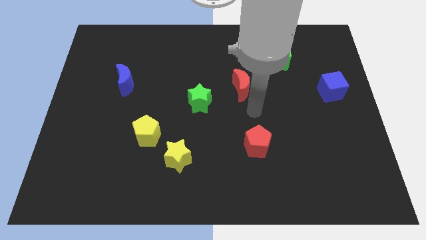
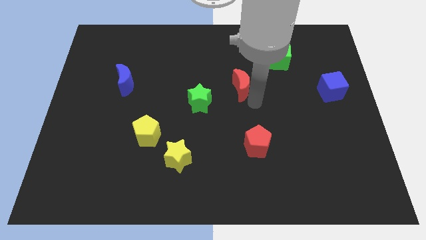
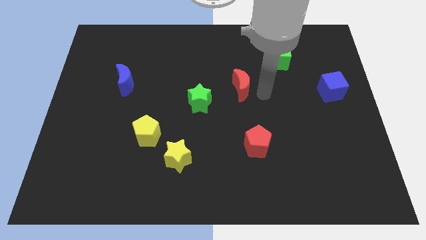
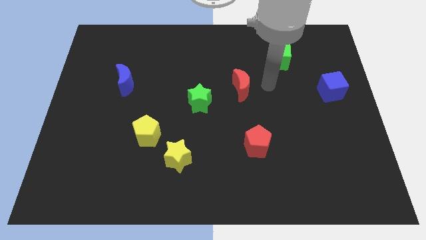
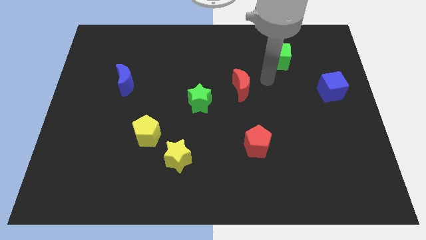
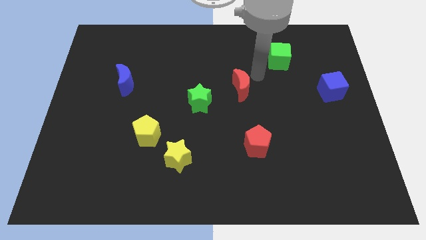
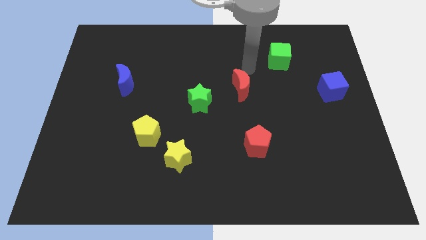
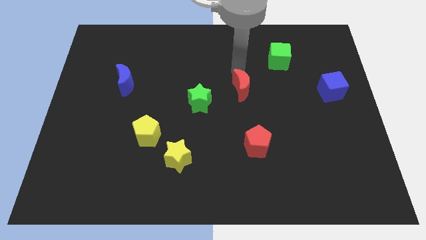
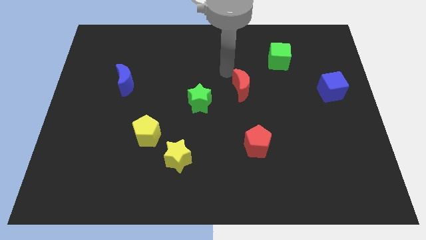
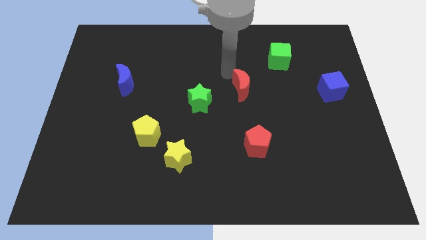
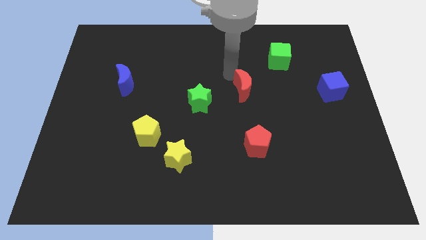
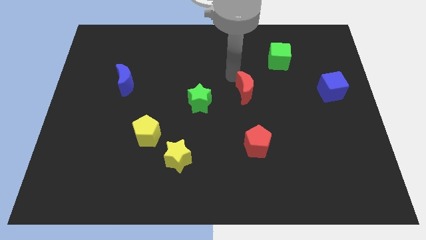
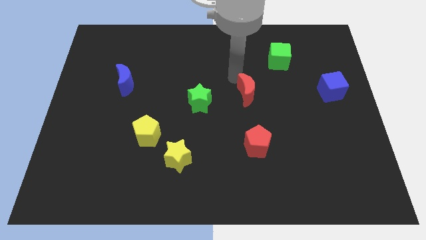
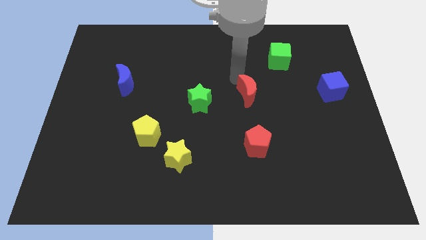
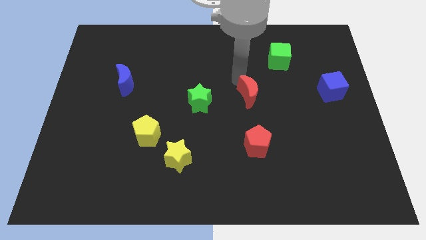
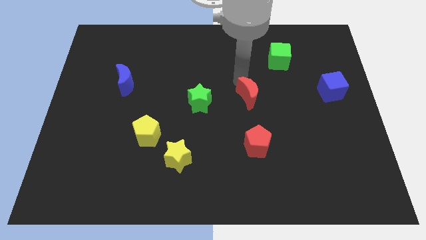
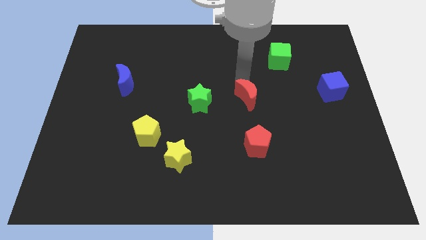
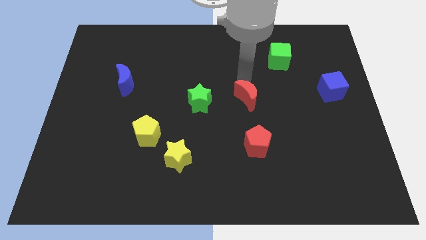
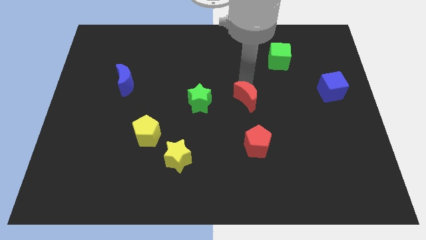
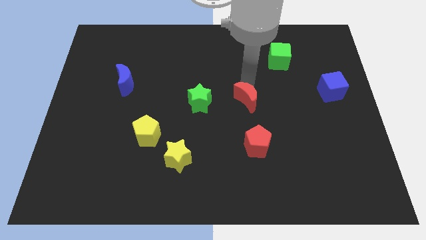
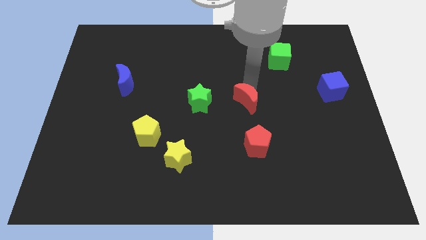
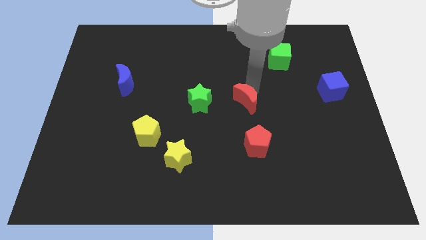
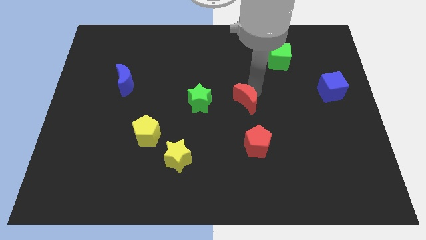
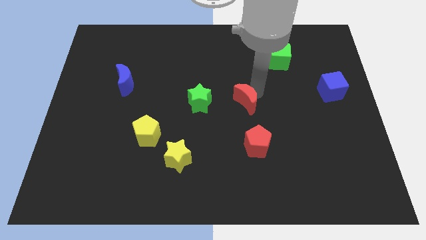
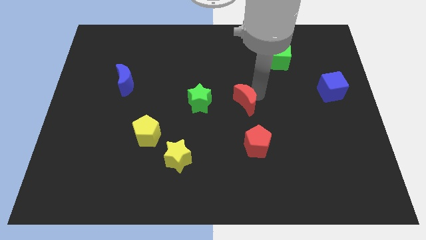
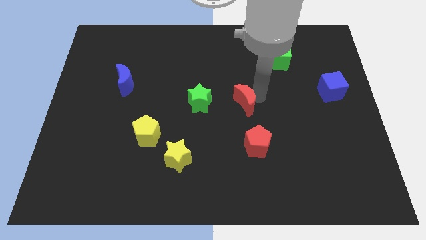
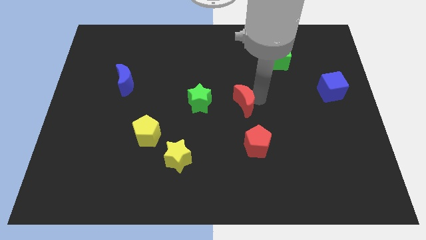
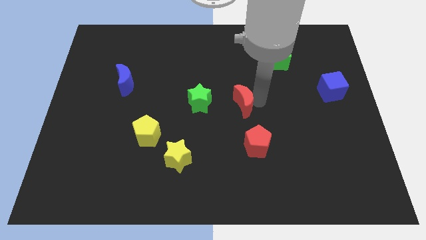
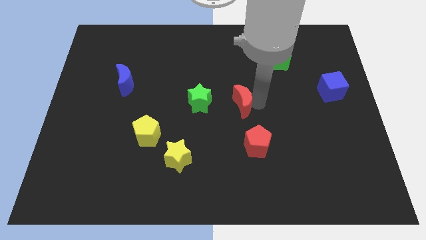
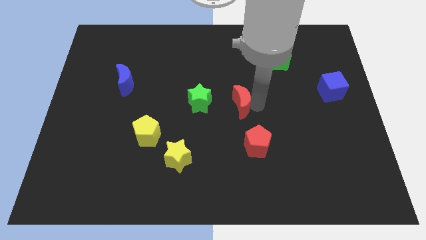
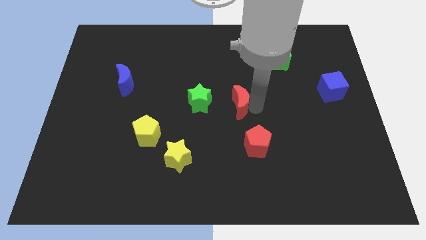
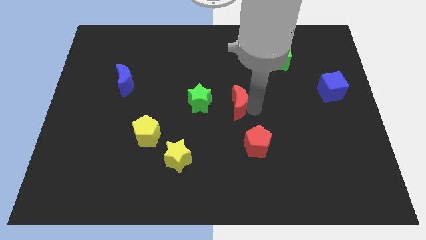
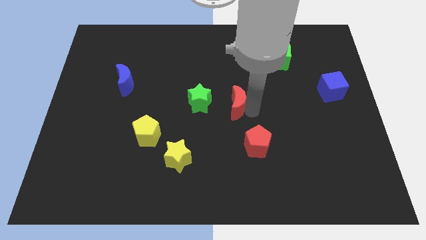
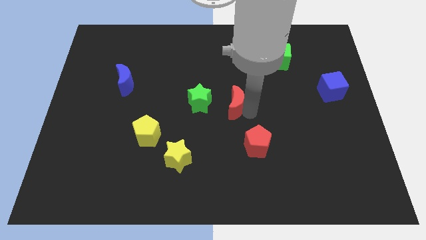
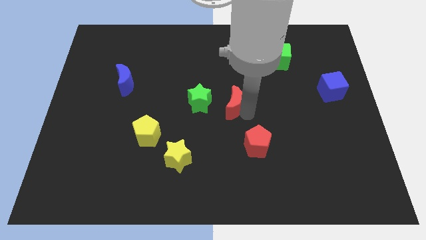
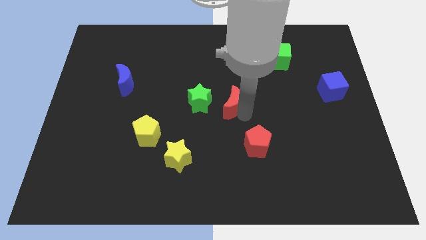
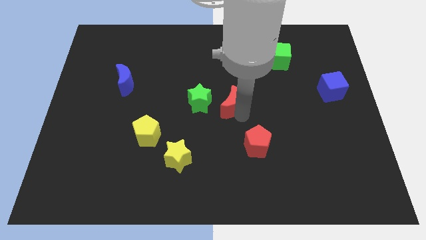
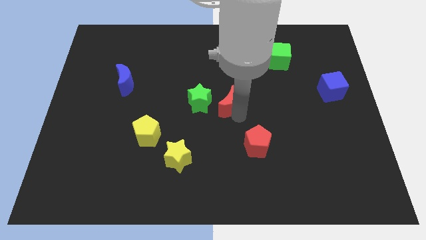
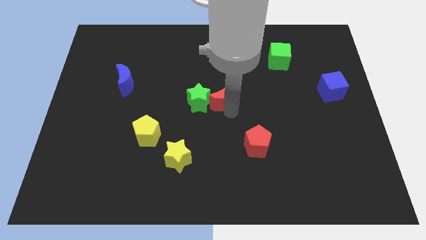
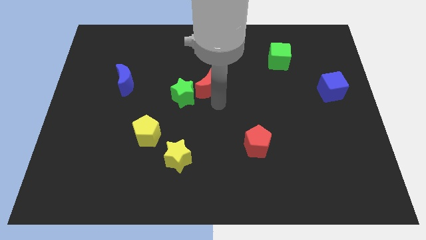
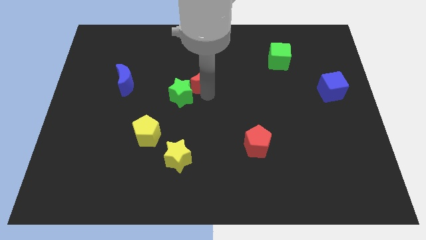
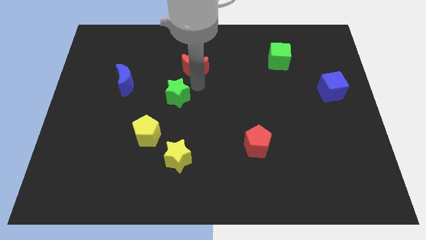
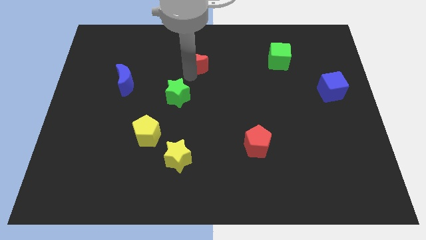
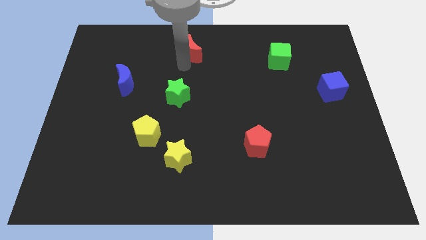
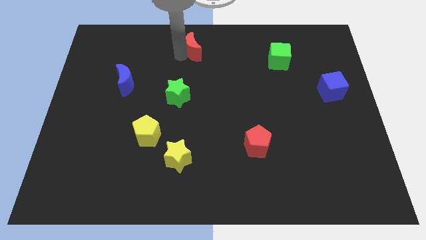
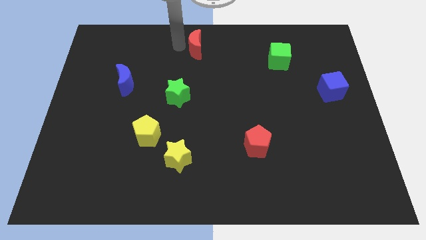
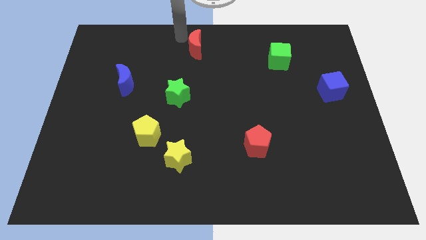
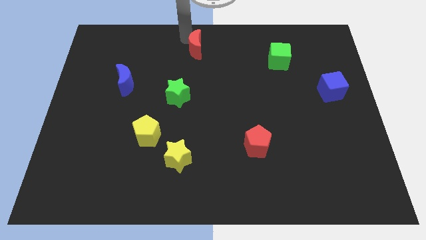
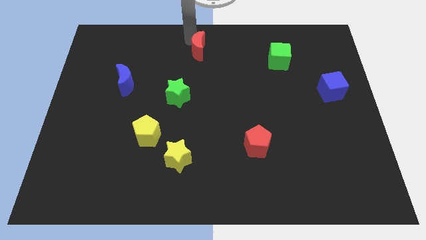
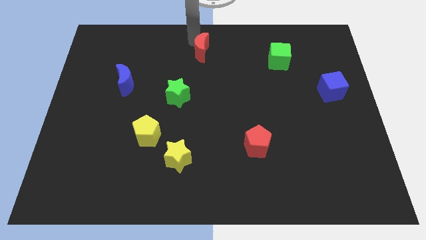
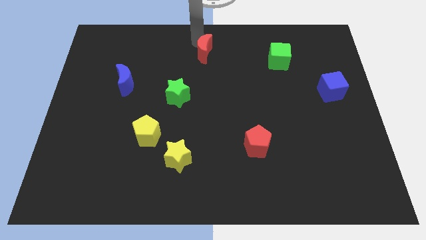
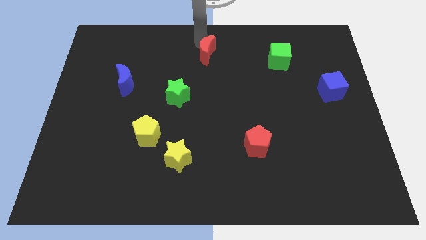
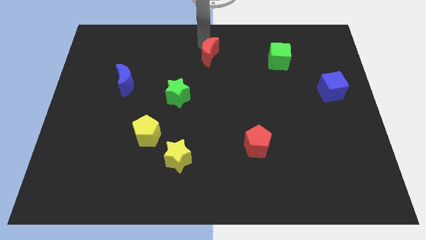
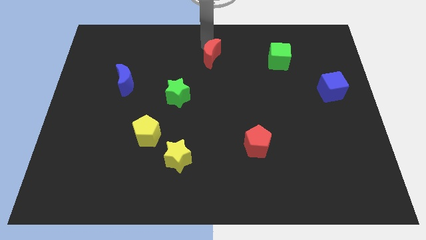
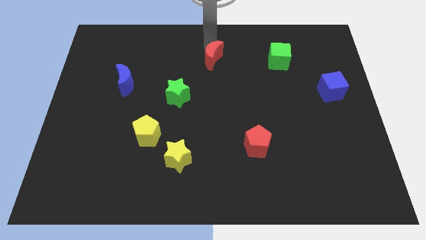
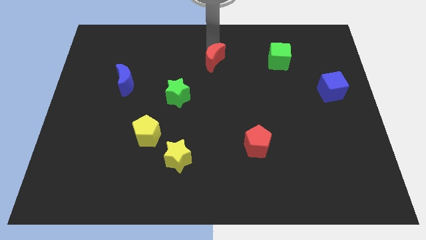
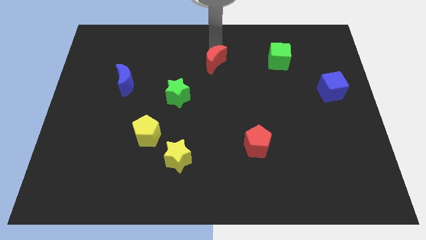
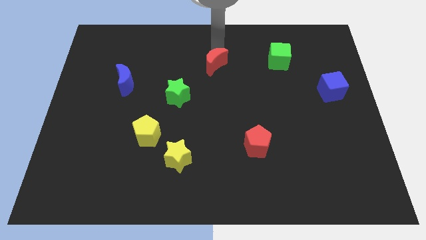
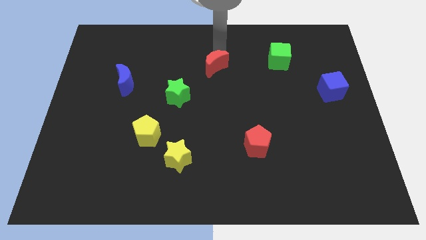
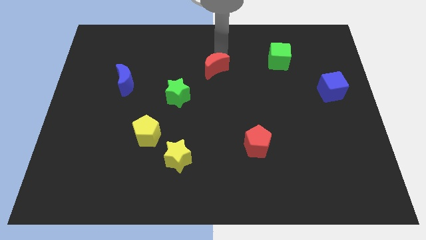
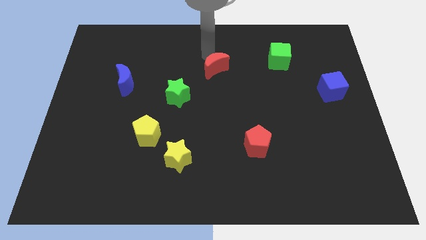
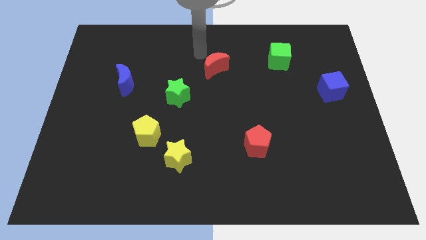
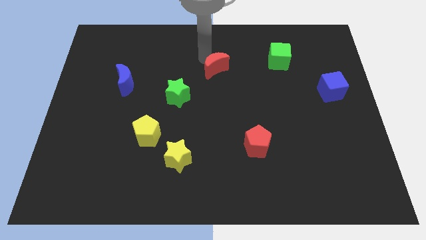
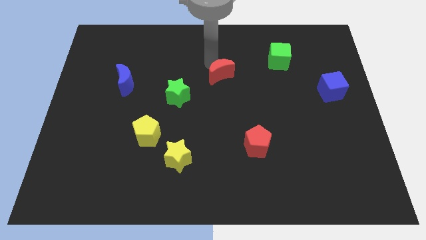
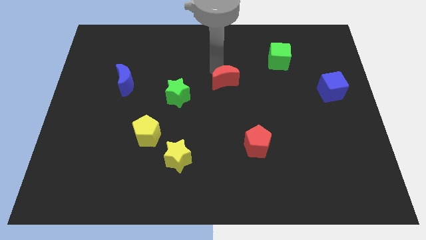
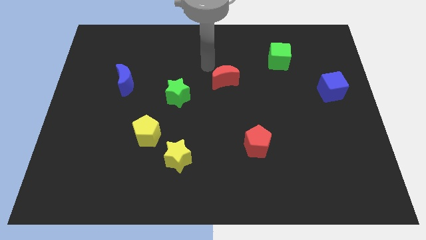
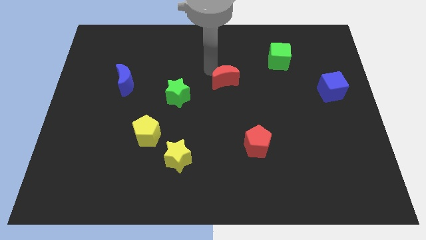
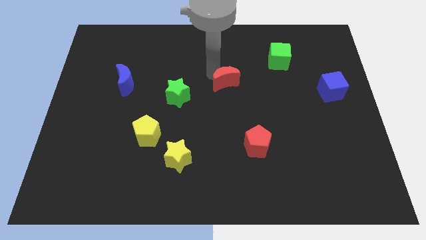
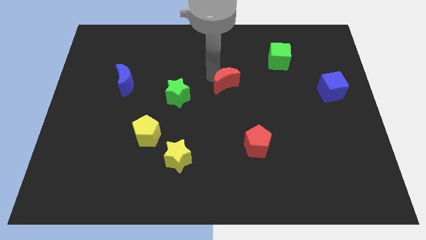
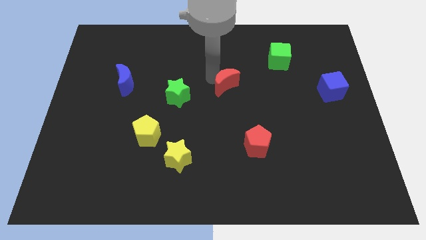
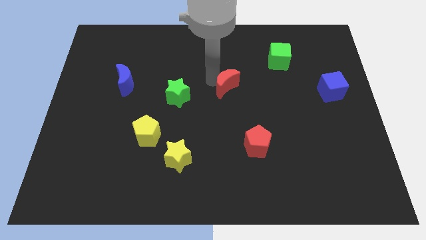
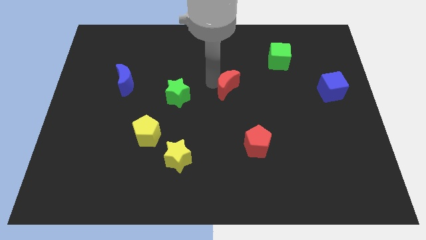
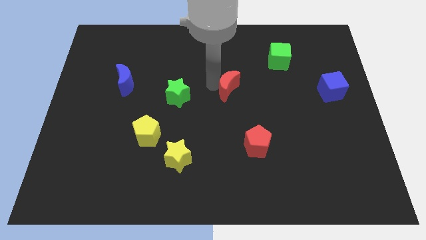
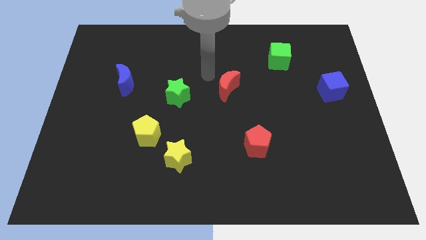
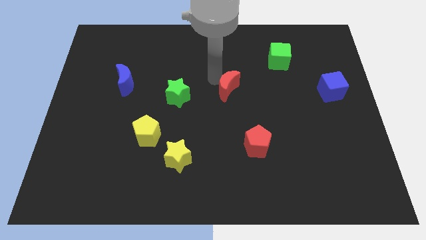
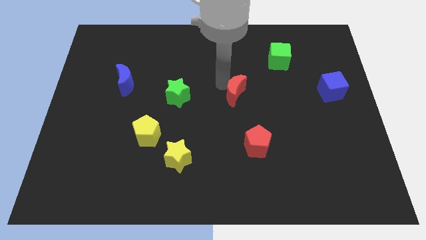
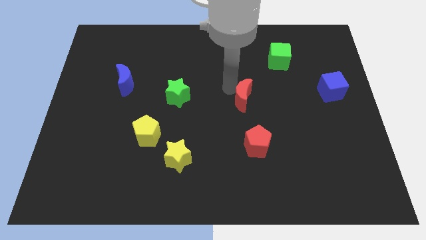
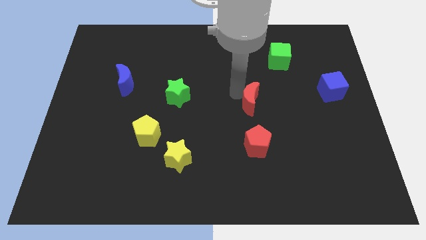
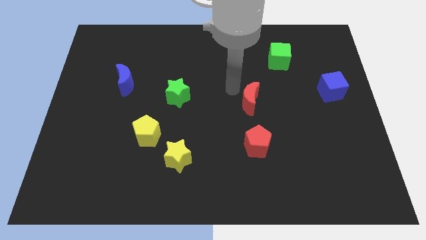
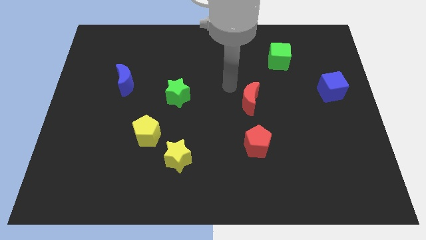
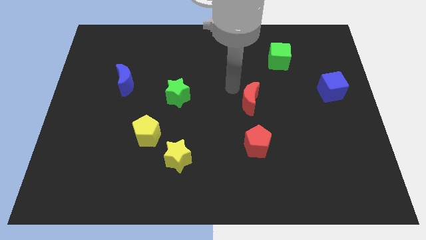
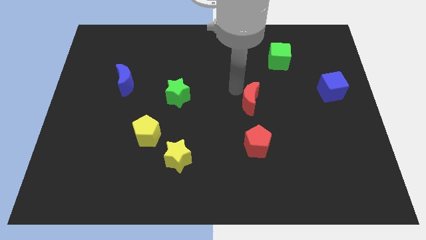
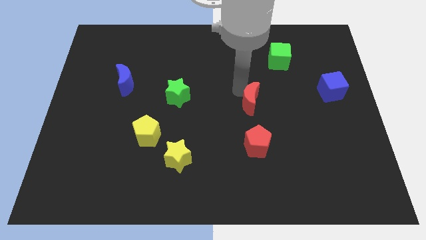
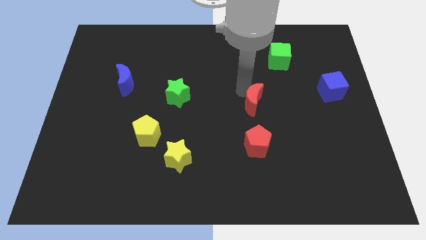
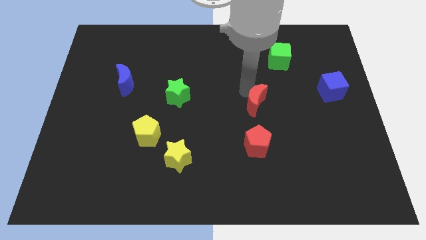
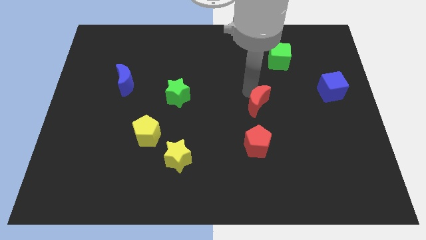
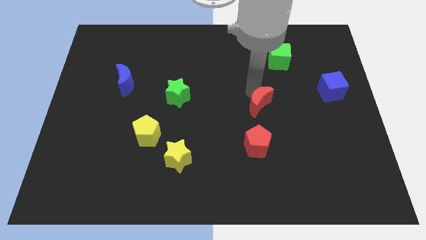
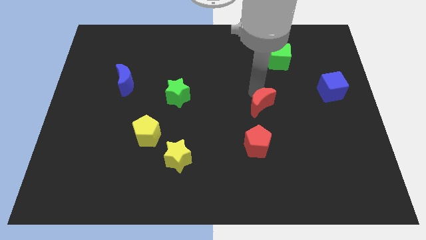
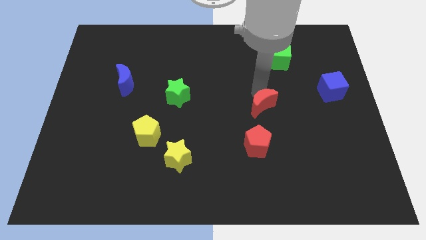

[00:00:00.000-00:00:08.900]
slide the red moon downwards and to the right diagonally a little
